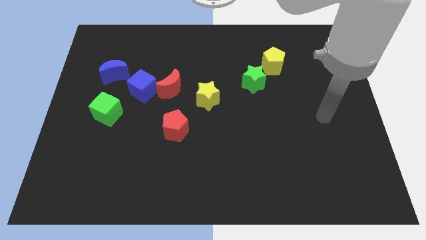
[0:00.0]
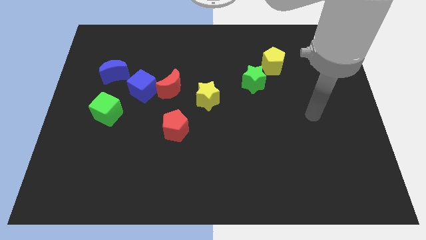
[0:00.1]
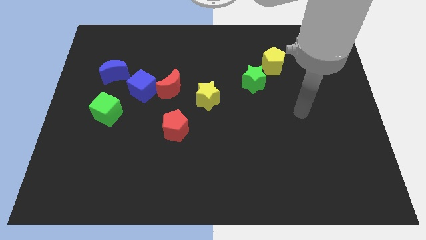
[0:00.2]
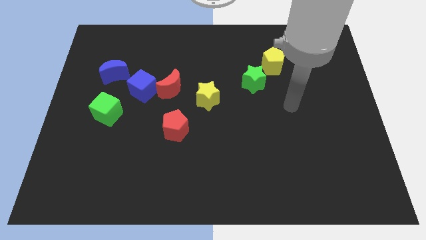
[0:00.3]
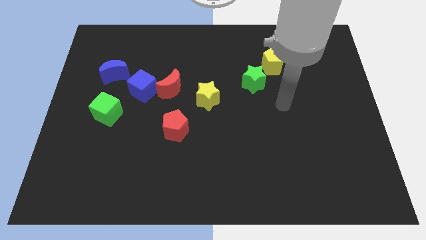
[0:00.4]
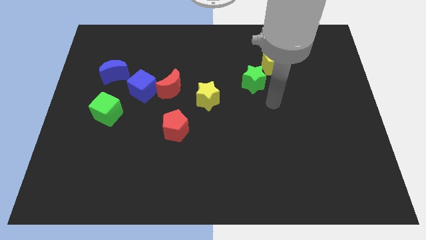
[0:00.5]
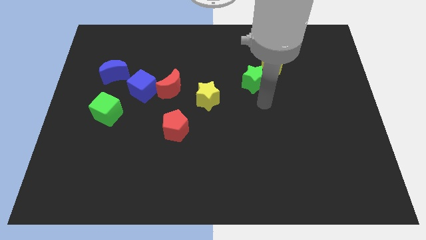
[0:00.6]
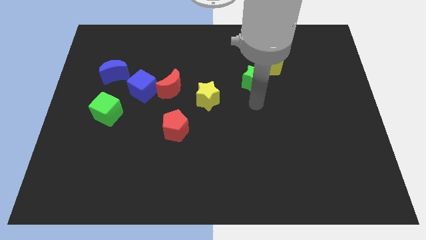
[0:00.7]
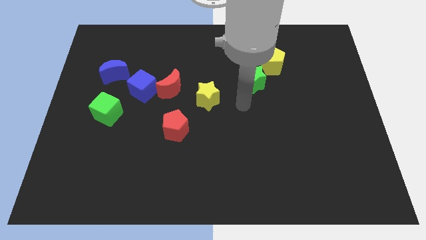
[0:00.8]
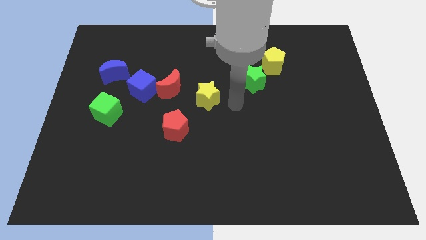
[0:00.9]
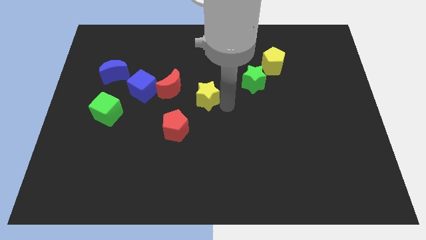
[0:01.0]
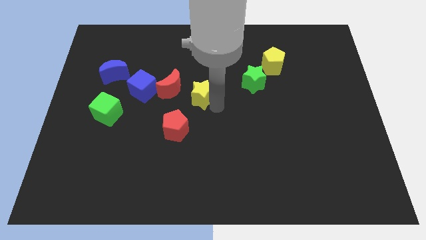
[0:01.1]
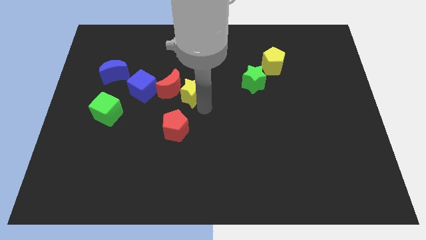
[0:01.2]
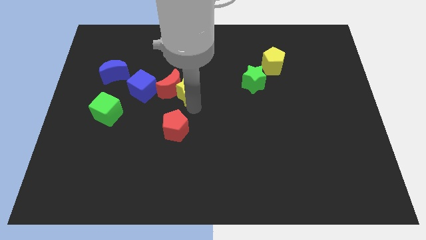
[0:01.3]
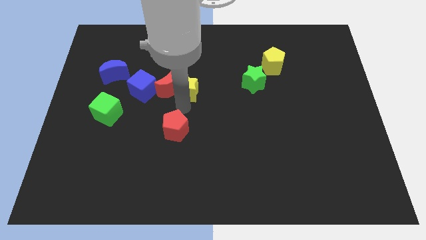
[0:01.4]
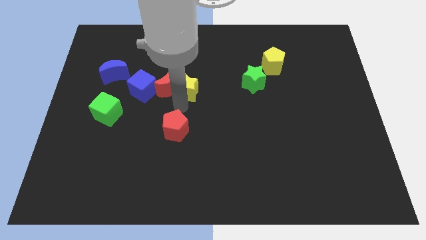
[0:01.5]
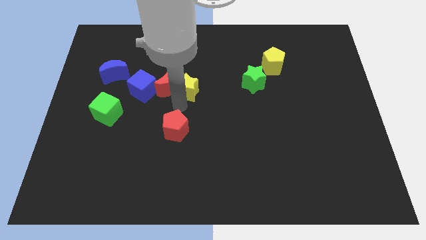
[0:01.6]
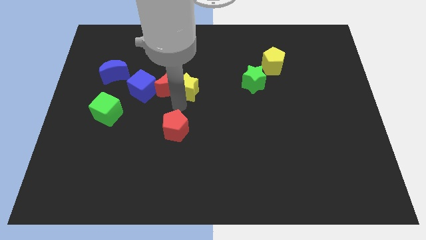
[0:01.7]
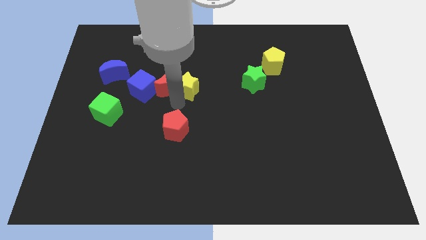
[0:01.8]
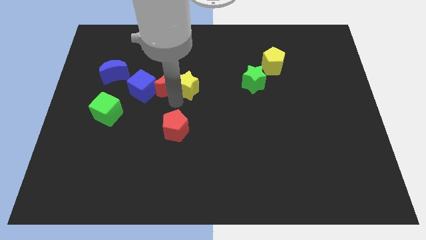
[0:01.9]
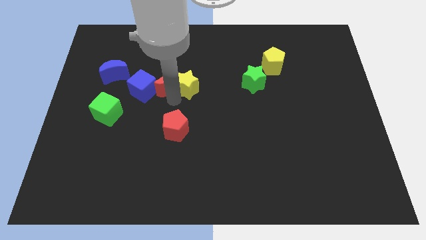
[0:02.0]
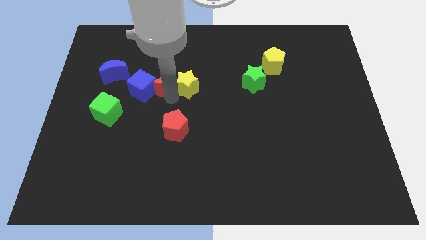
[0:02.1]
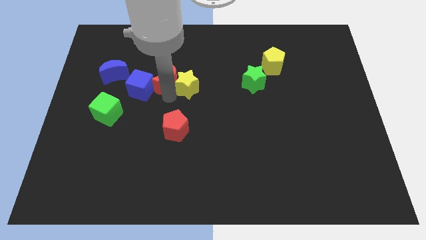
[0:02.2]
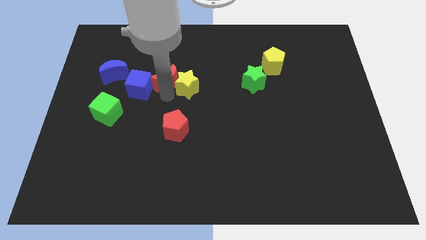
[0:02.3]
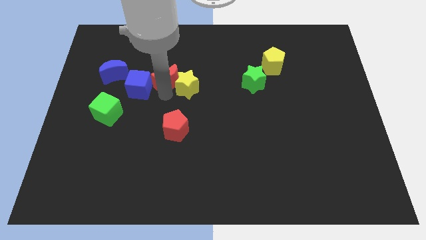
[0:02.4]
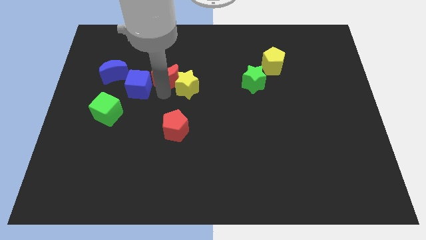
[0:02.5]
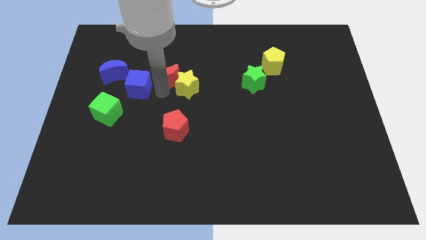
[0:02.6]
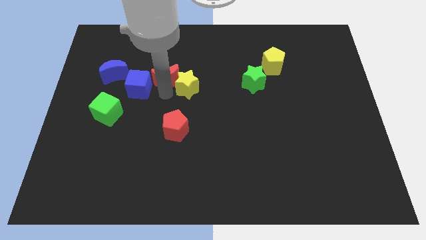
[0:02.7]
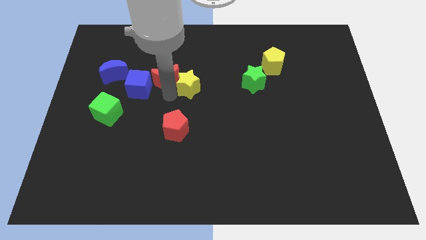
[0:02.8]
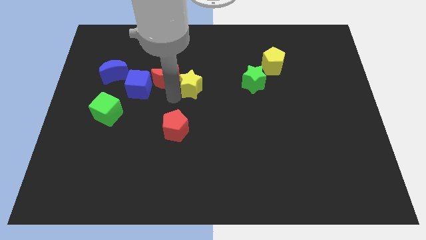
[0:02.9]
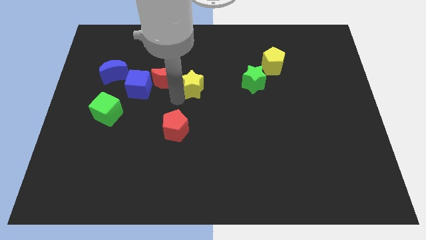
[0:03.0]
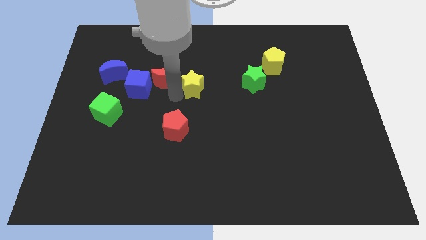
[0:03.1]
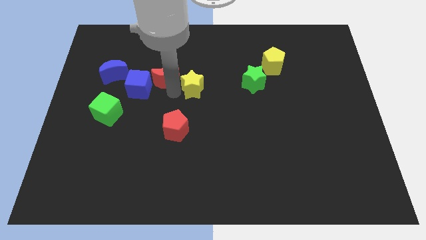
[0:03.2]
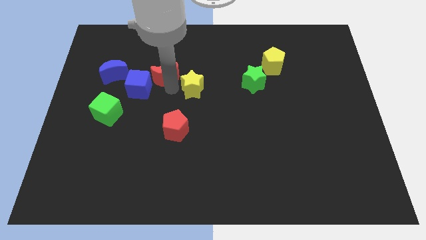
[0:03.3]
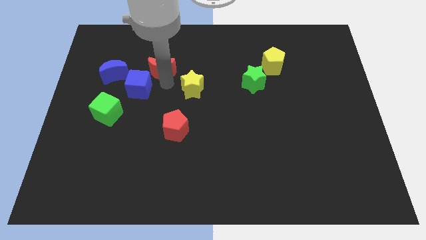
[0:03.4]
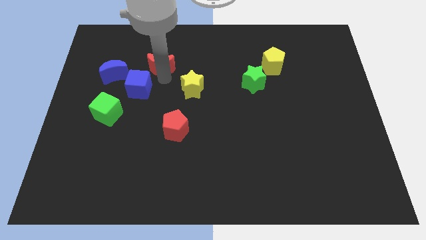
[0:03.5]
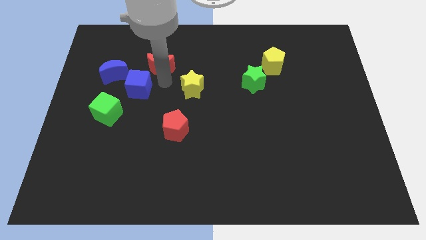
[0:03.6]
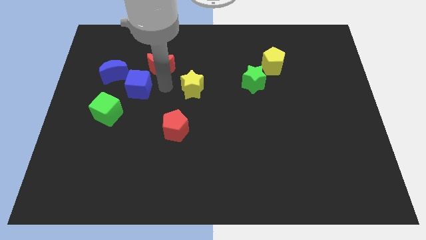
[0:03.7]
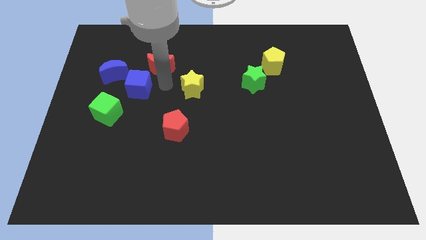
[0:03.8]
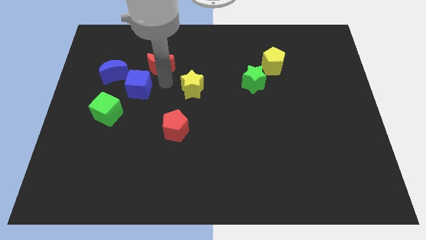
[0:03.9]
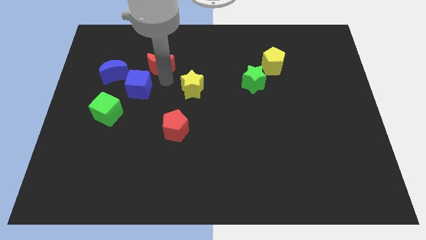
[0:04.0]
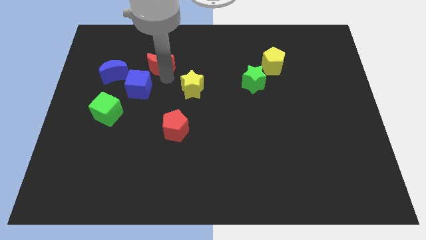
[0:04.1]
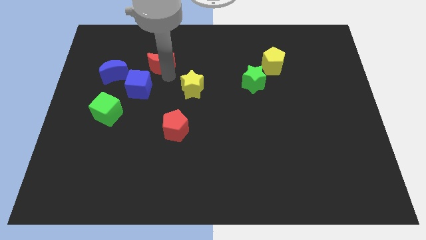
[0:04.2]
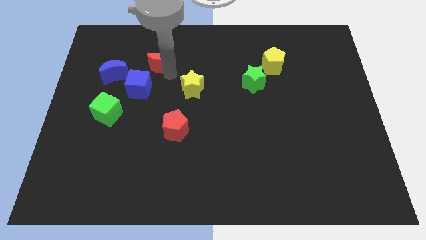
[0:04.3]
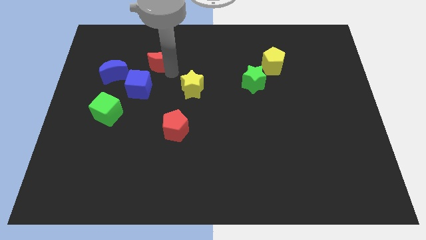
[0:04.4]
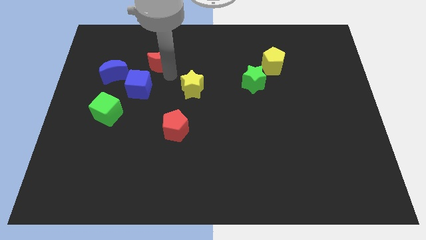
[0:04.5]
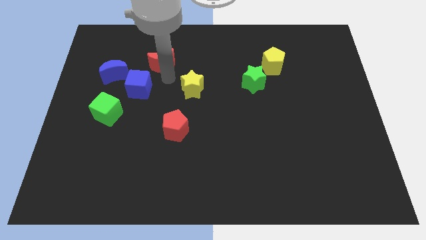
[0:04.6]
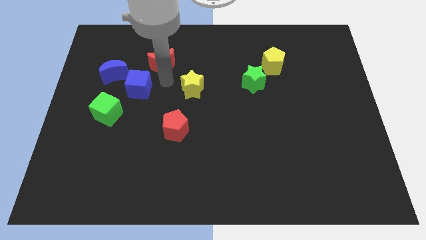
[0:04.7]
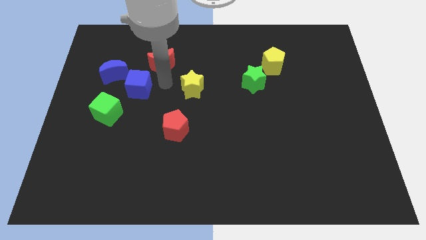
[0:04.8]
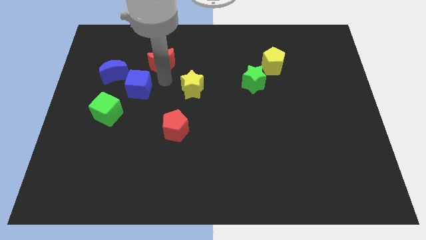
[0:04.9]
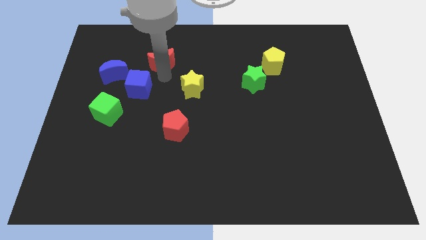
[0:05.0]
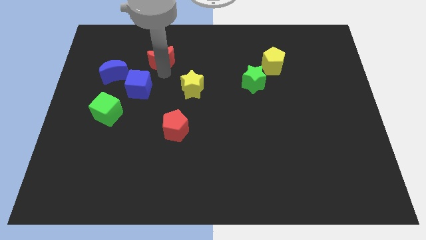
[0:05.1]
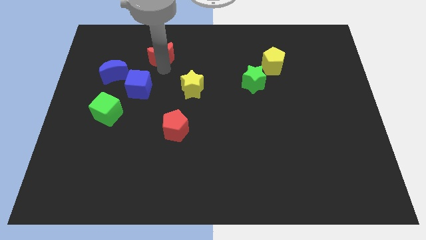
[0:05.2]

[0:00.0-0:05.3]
move the red moon away from the blue cube and yellow star

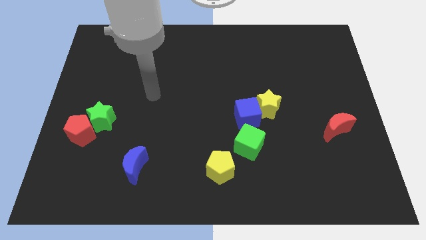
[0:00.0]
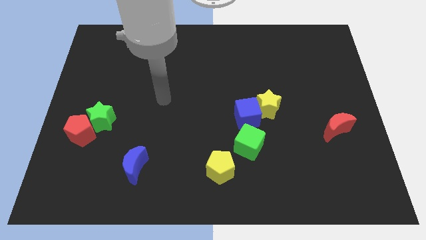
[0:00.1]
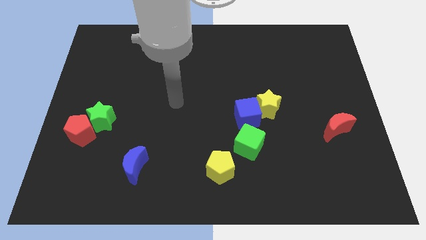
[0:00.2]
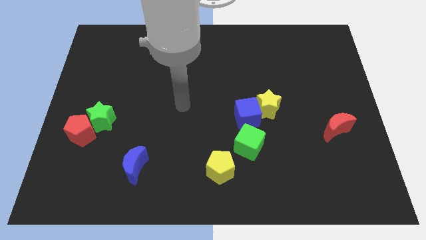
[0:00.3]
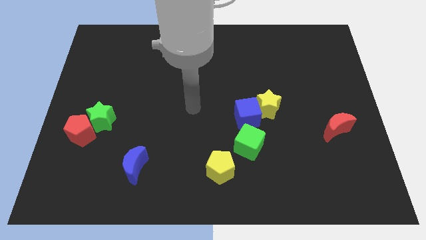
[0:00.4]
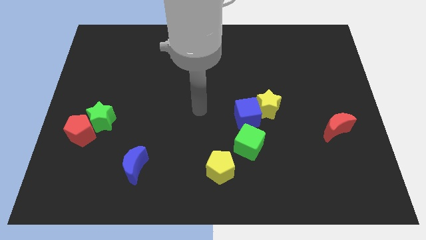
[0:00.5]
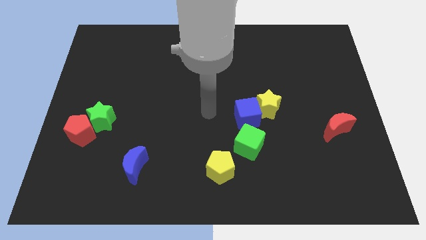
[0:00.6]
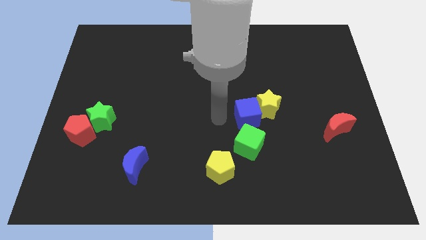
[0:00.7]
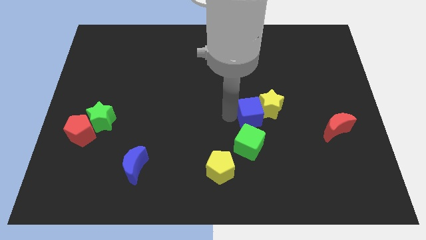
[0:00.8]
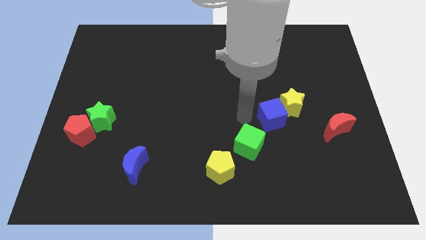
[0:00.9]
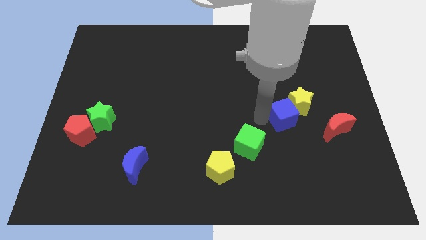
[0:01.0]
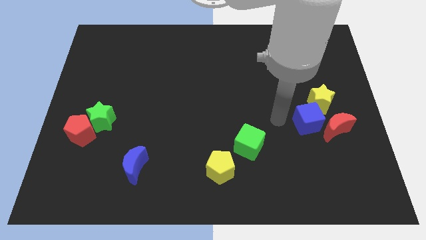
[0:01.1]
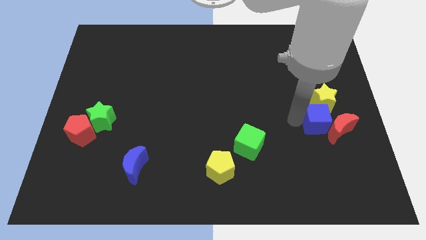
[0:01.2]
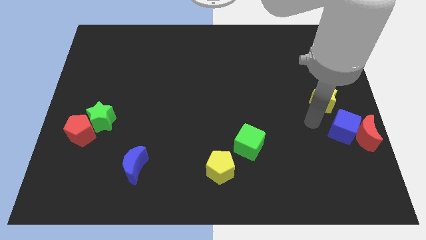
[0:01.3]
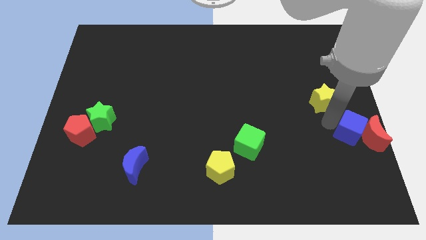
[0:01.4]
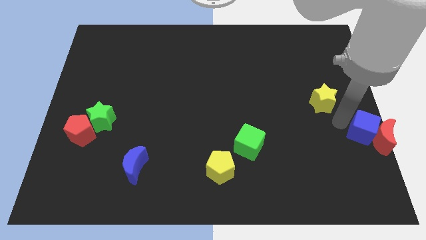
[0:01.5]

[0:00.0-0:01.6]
move the yellow star away from the blue cube

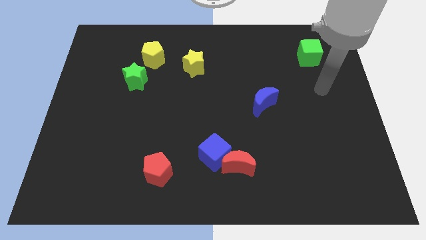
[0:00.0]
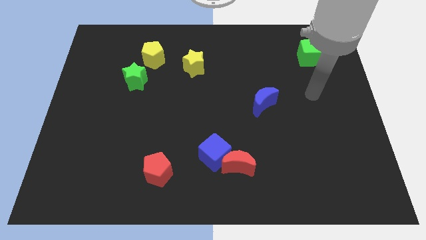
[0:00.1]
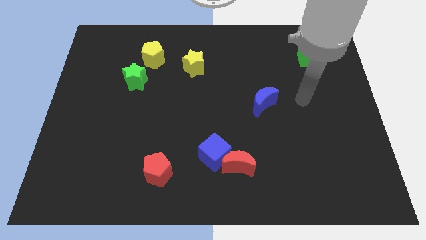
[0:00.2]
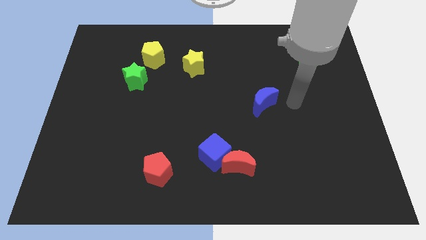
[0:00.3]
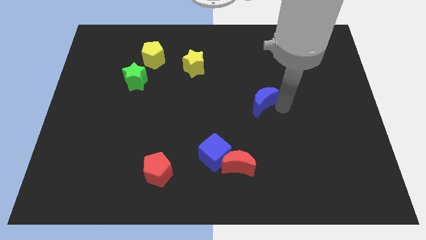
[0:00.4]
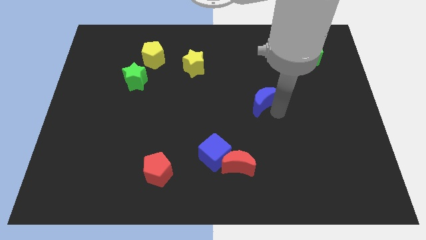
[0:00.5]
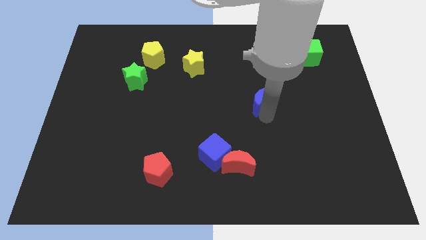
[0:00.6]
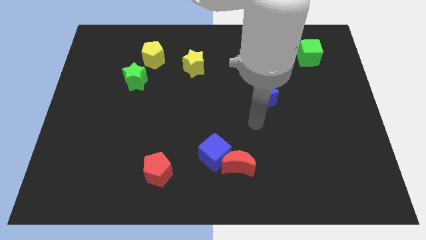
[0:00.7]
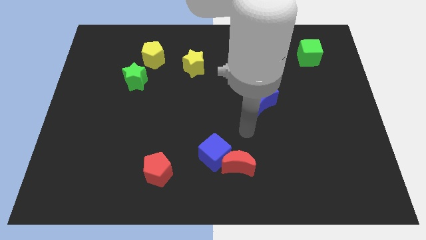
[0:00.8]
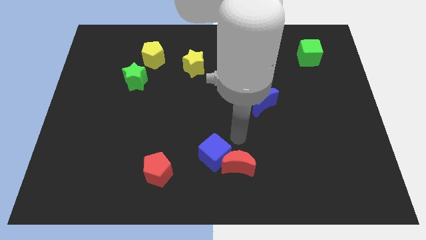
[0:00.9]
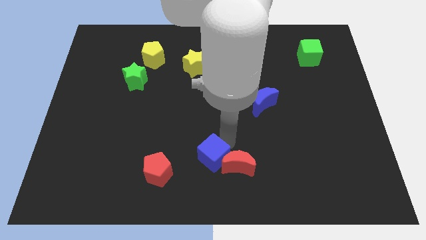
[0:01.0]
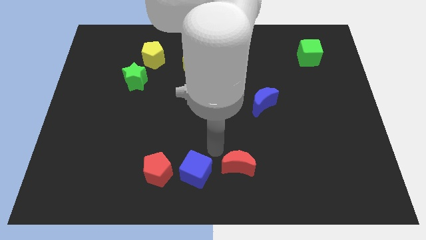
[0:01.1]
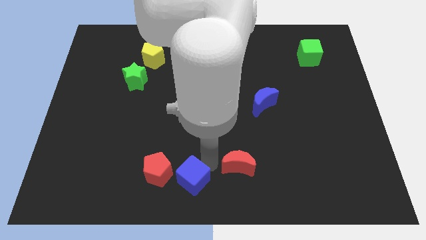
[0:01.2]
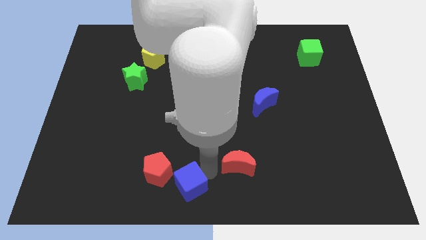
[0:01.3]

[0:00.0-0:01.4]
pull the red moon apart from the blue cube

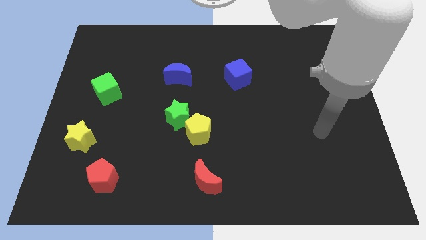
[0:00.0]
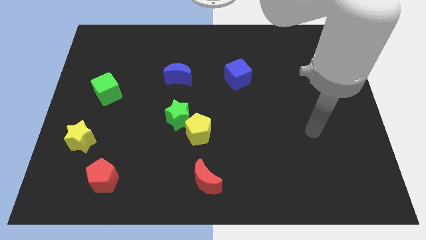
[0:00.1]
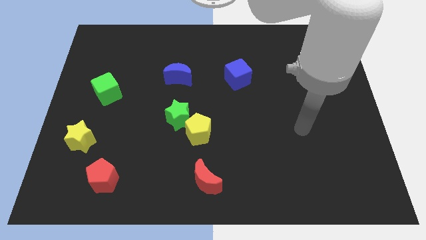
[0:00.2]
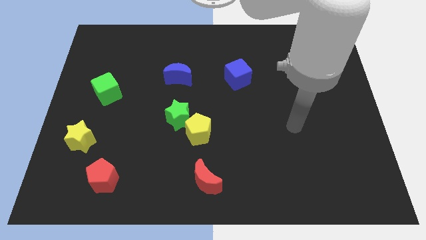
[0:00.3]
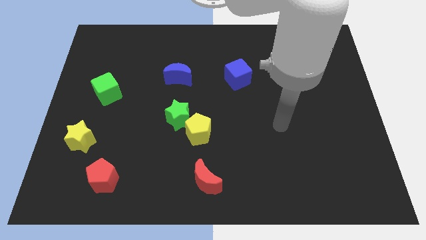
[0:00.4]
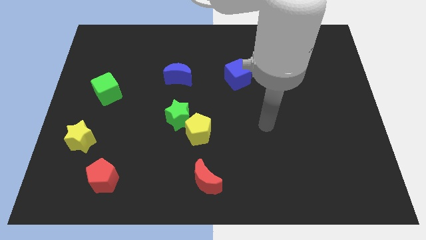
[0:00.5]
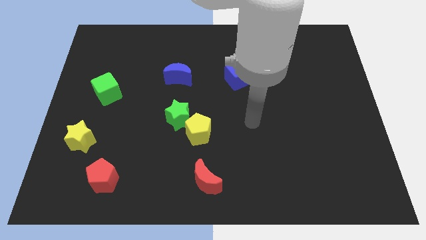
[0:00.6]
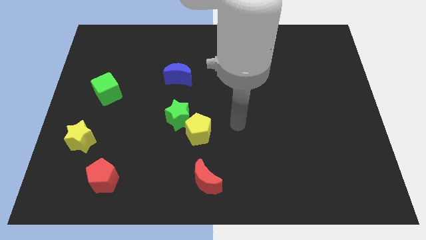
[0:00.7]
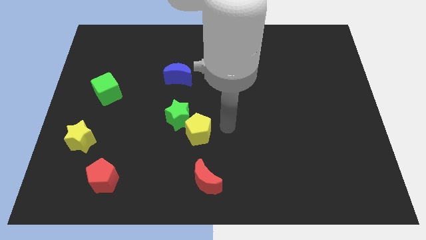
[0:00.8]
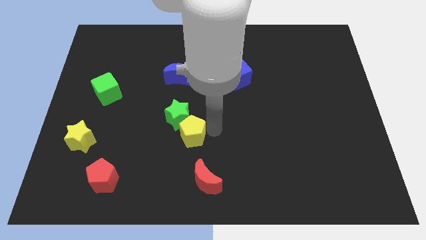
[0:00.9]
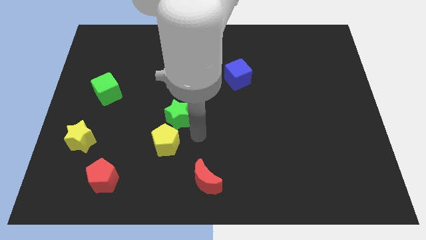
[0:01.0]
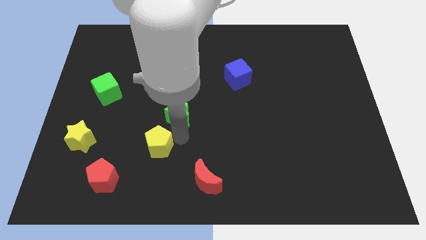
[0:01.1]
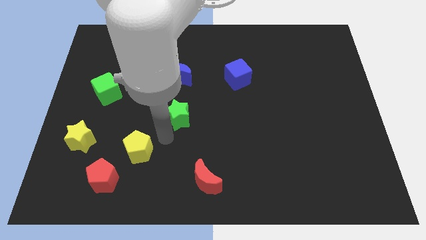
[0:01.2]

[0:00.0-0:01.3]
pull the green star apart from the yellow pentagon
